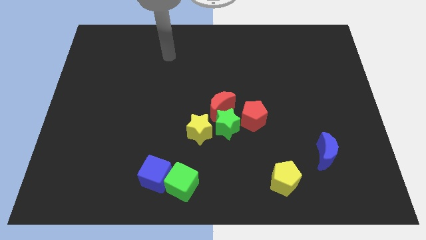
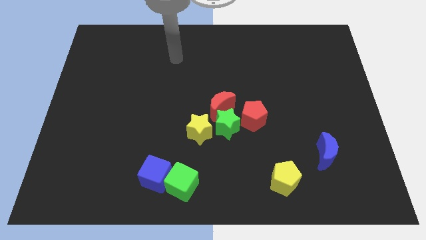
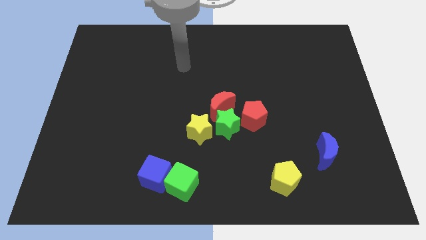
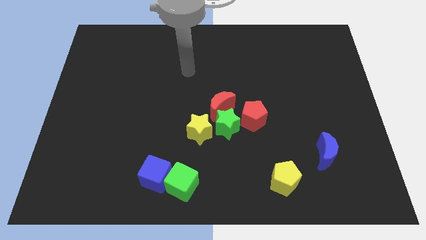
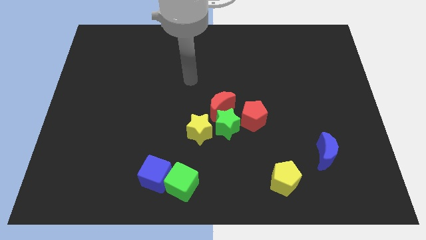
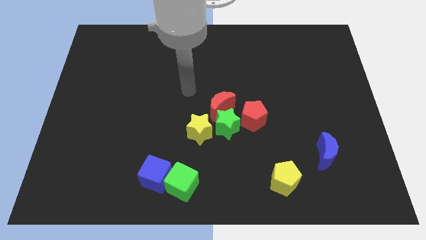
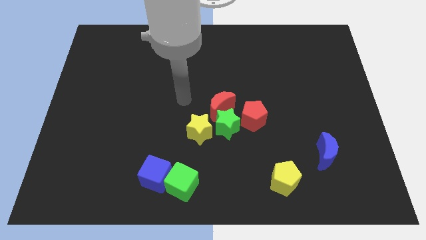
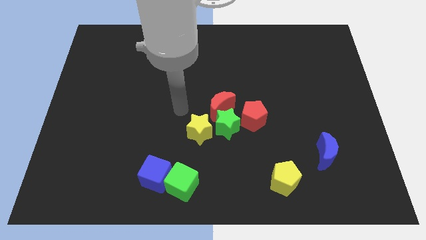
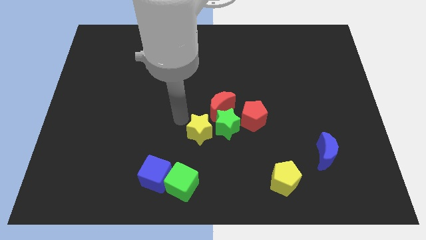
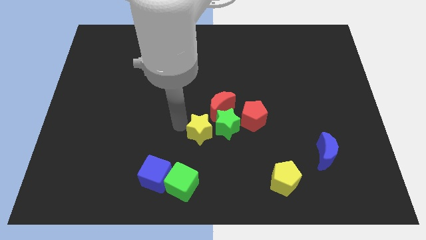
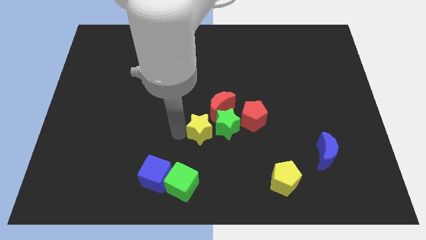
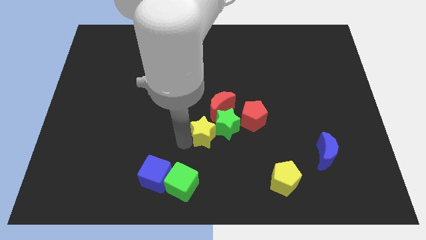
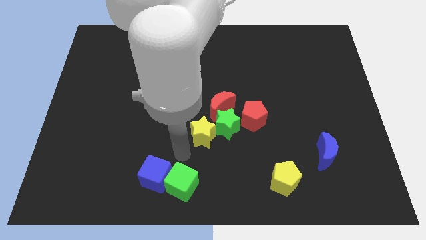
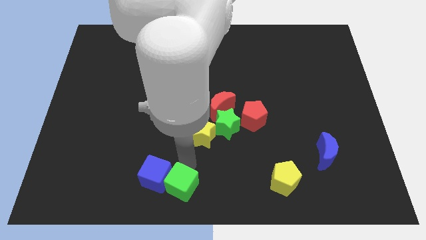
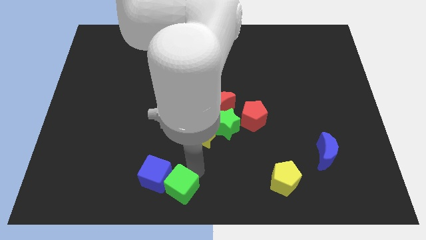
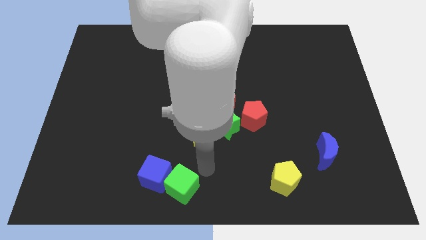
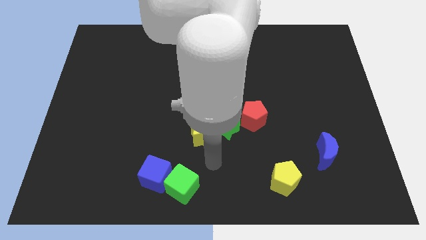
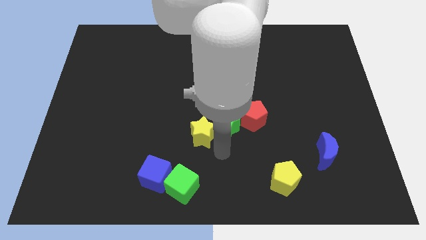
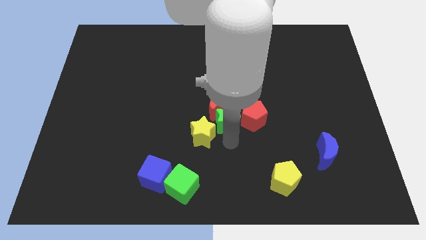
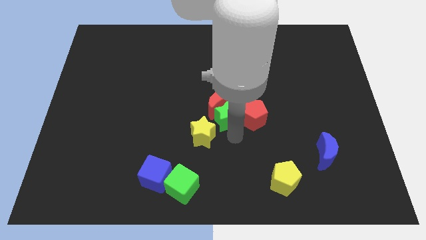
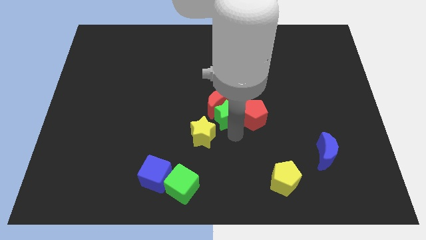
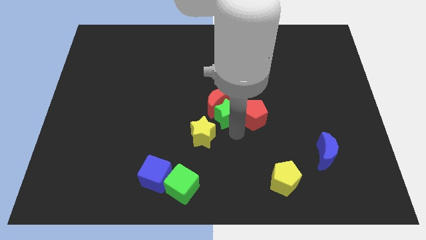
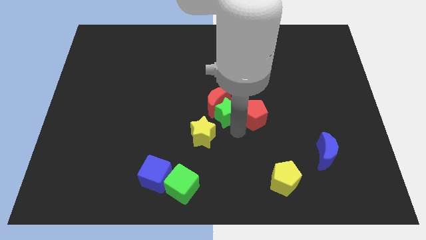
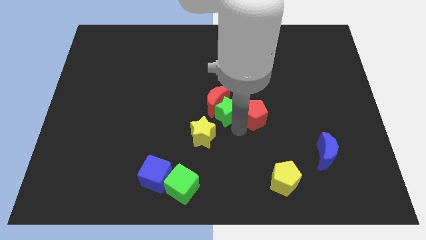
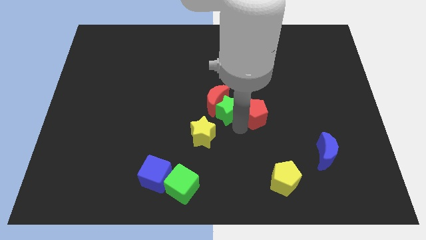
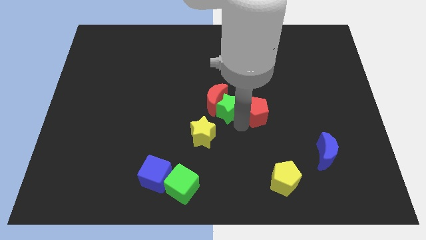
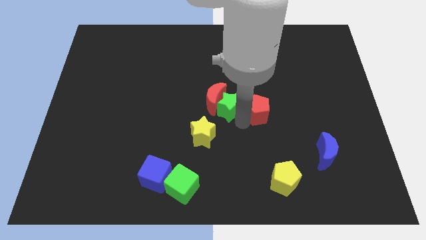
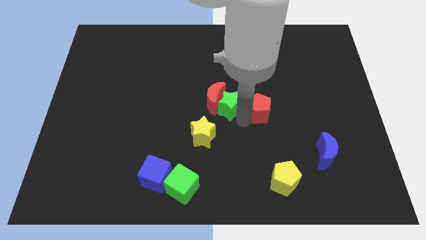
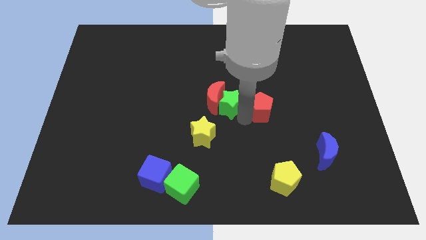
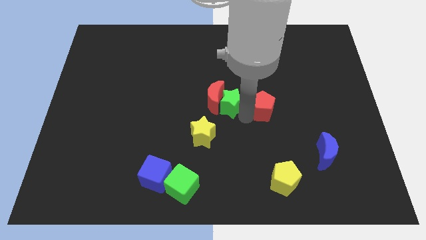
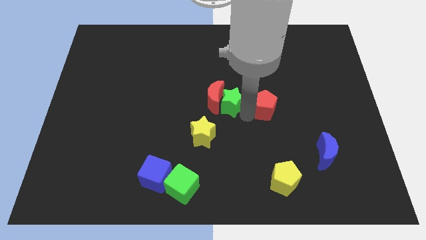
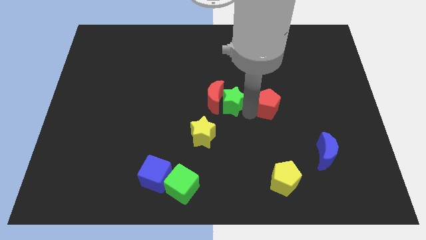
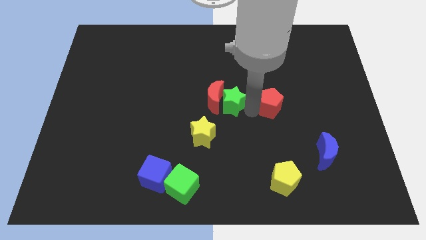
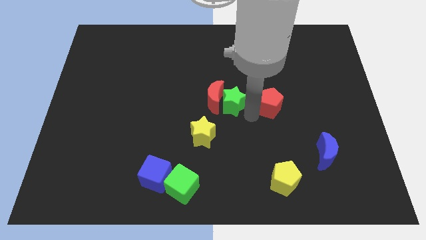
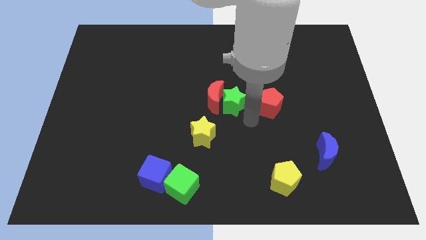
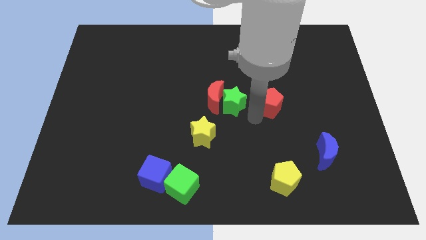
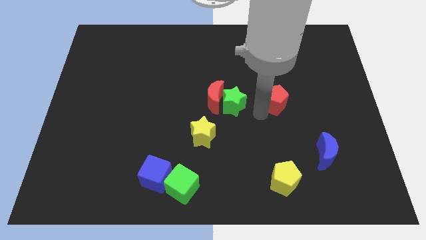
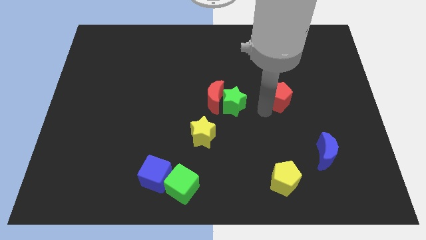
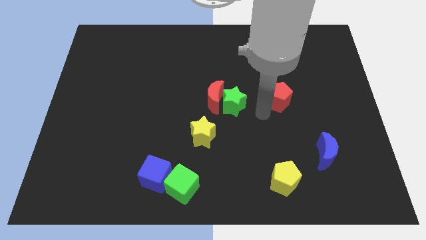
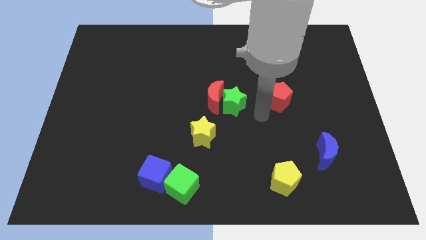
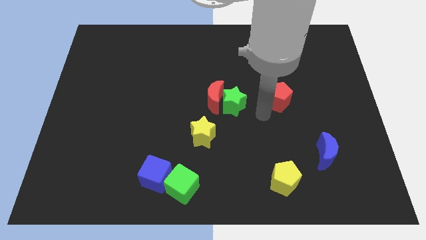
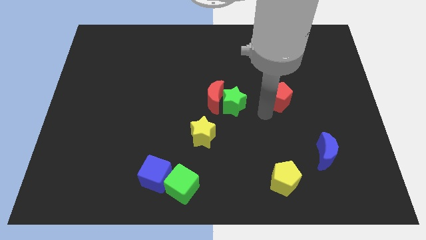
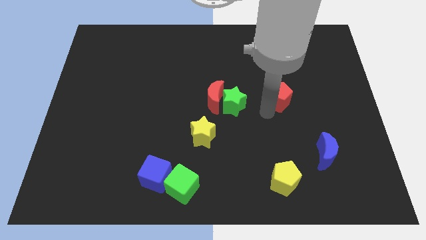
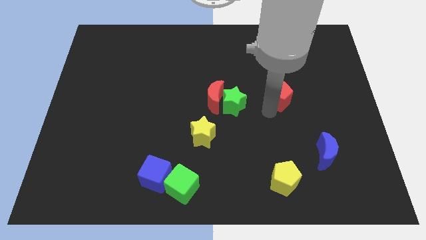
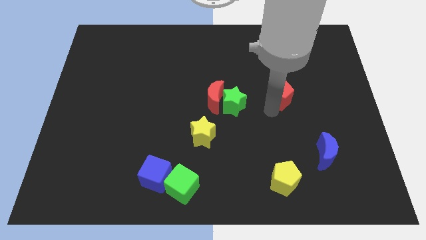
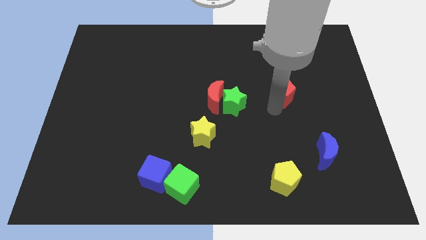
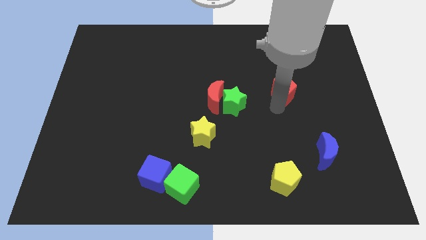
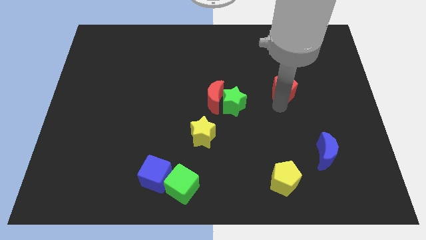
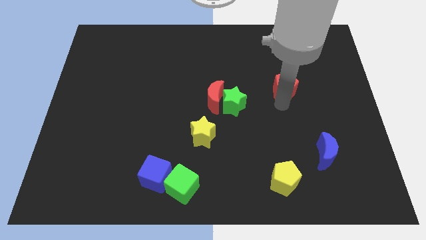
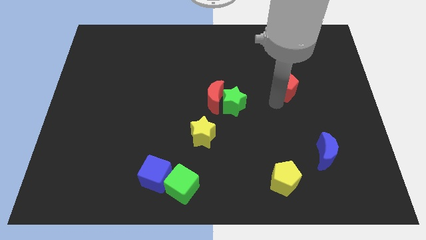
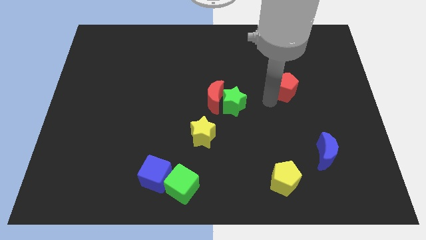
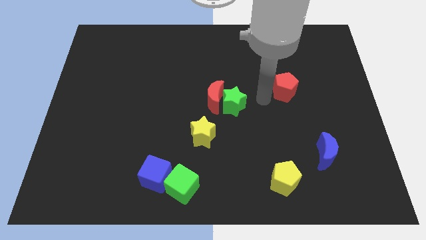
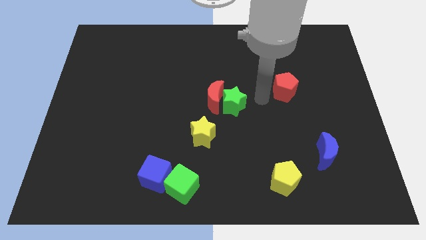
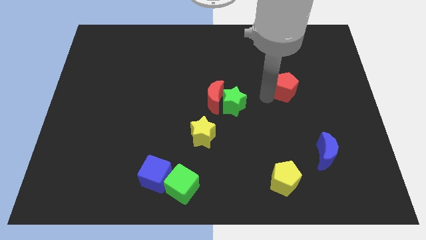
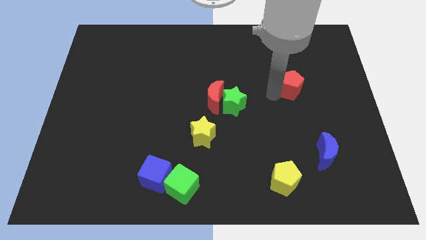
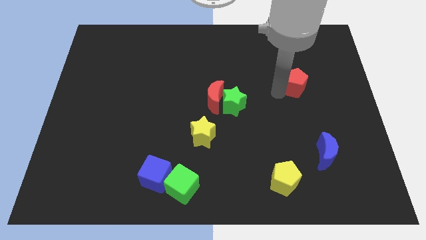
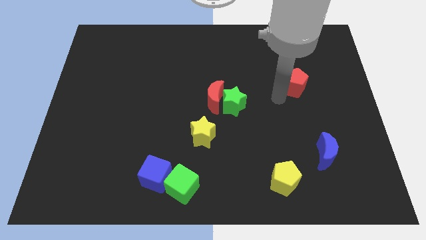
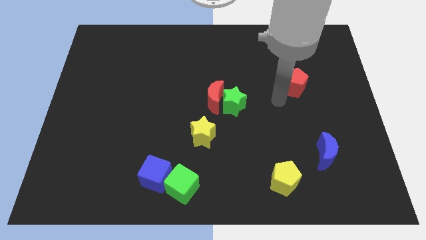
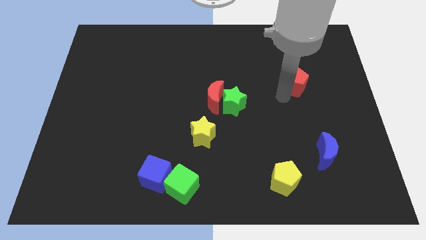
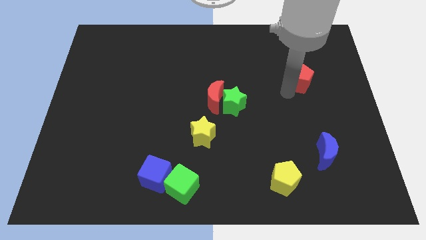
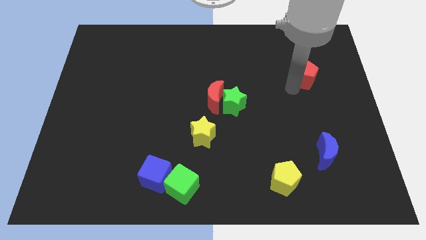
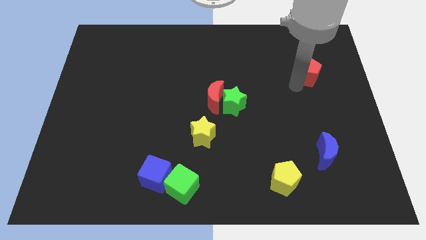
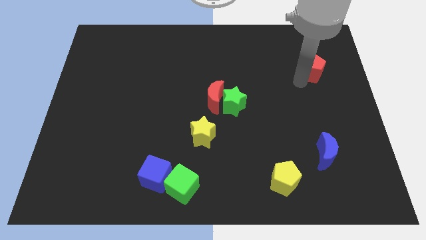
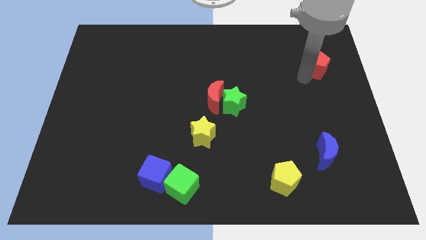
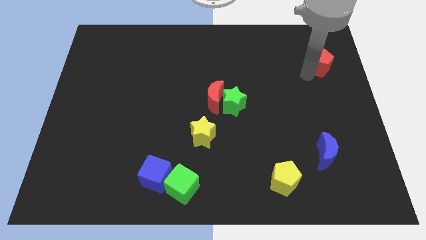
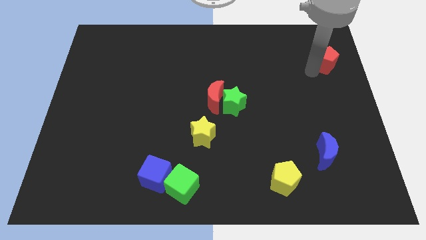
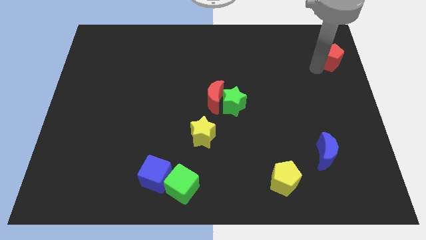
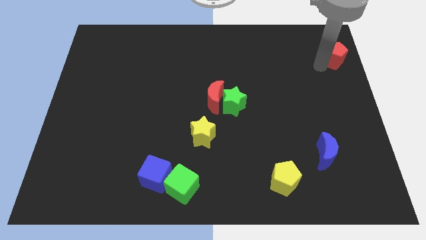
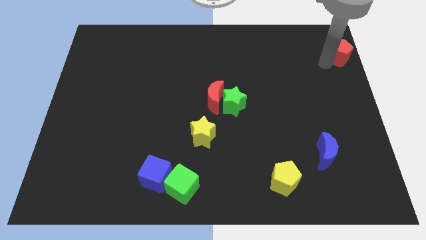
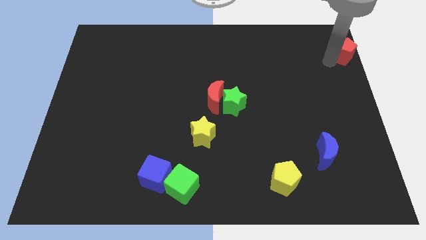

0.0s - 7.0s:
push the red pentagon to the top right of the board
